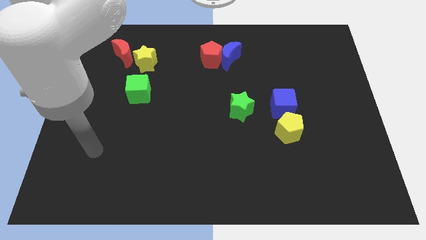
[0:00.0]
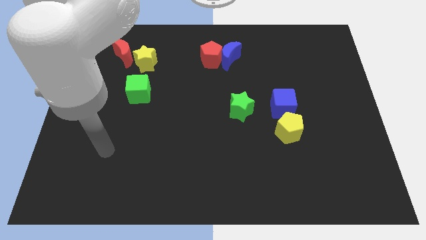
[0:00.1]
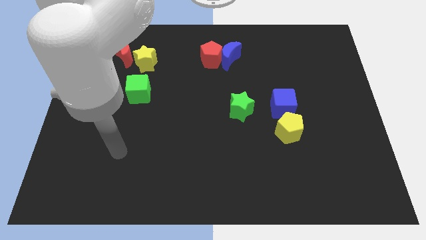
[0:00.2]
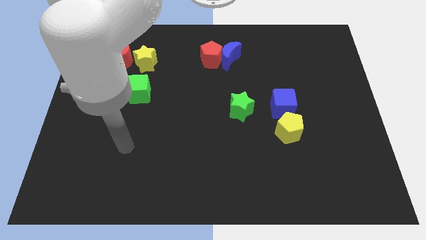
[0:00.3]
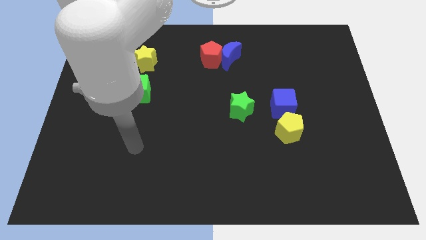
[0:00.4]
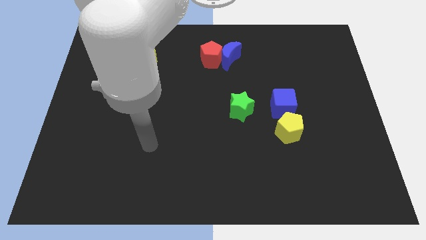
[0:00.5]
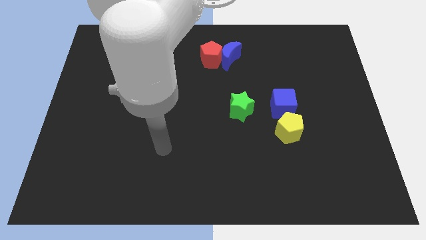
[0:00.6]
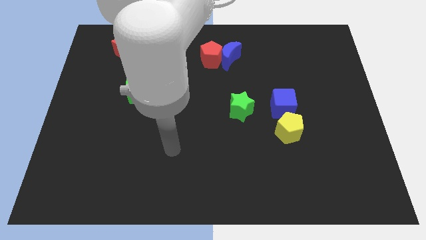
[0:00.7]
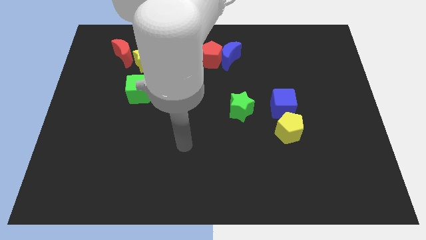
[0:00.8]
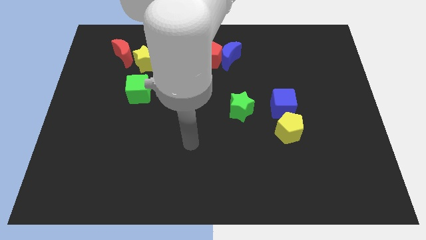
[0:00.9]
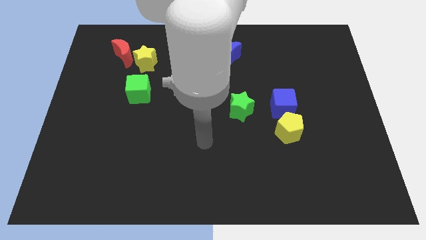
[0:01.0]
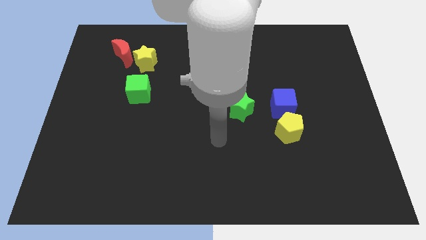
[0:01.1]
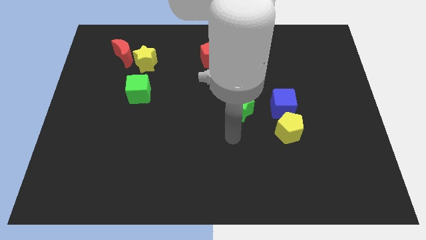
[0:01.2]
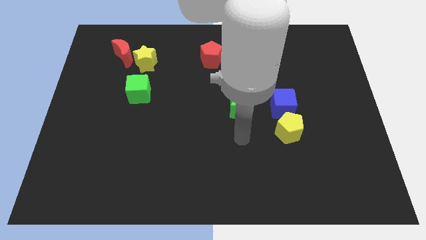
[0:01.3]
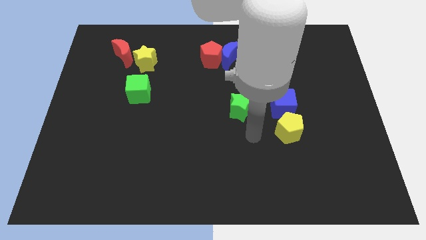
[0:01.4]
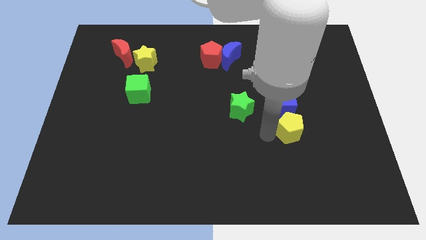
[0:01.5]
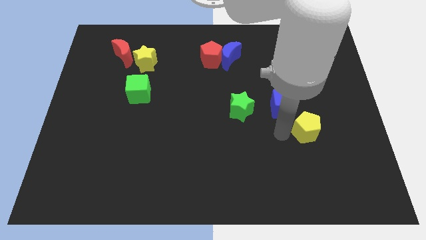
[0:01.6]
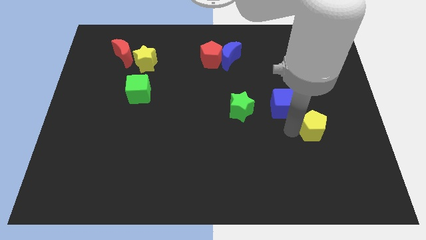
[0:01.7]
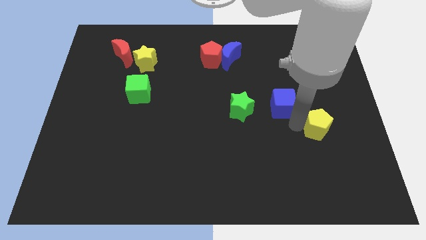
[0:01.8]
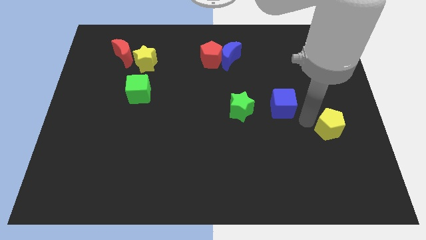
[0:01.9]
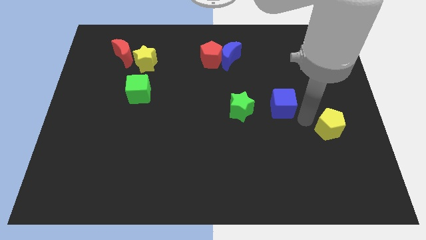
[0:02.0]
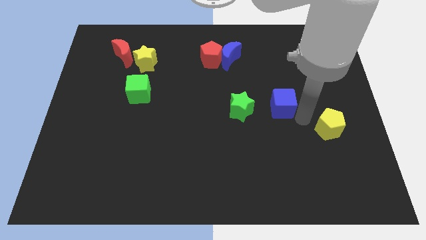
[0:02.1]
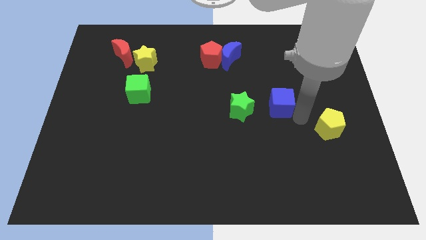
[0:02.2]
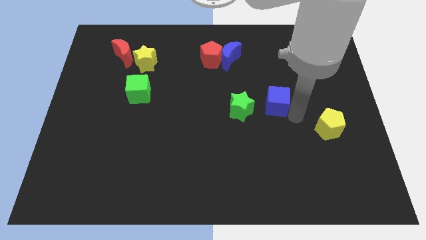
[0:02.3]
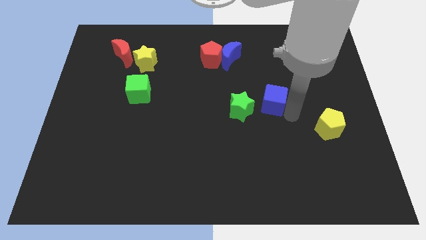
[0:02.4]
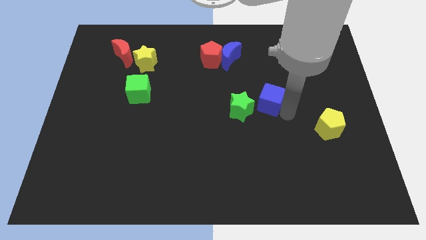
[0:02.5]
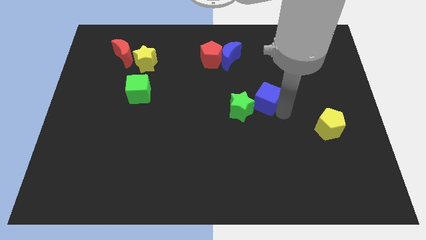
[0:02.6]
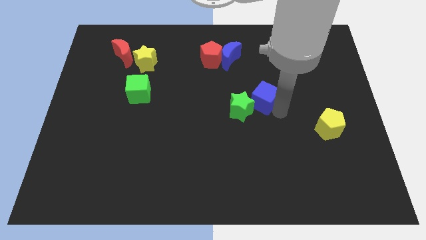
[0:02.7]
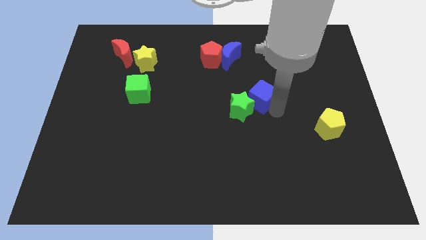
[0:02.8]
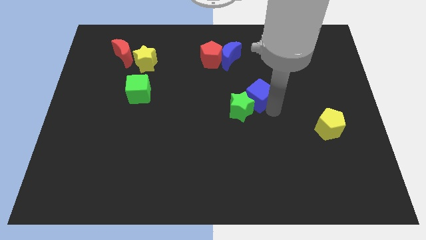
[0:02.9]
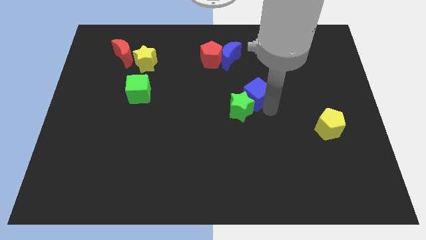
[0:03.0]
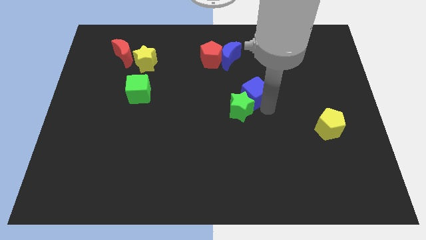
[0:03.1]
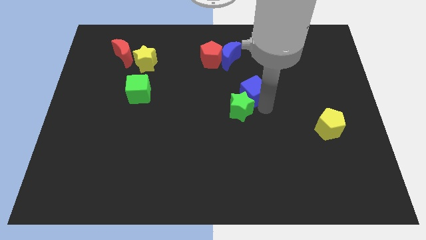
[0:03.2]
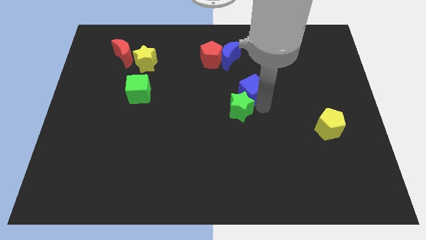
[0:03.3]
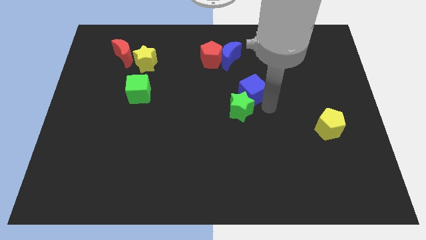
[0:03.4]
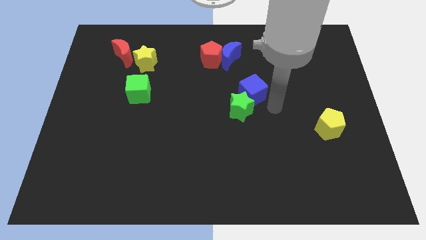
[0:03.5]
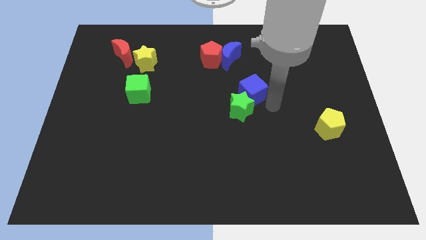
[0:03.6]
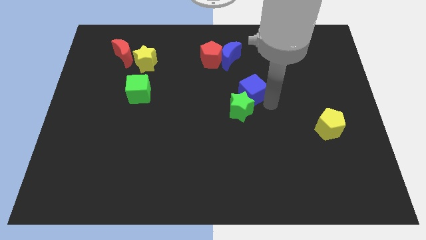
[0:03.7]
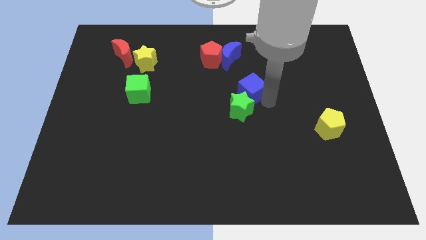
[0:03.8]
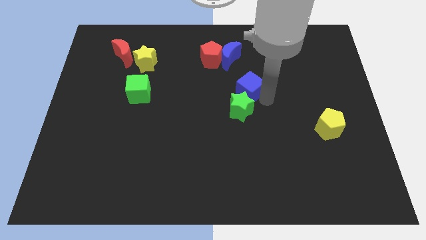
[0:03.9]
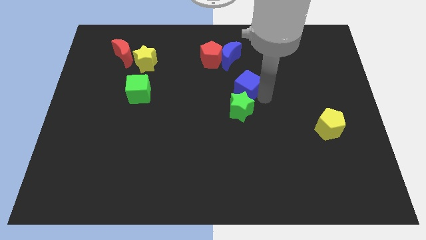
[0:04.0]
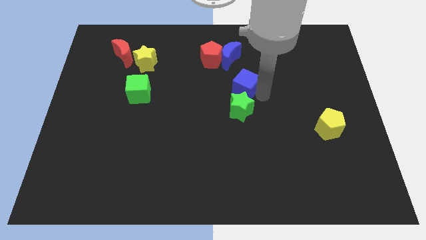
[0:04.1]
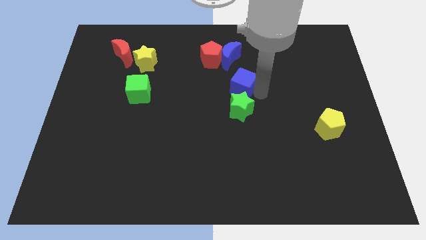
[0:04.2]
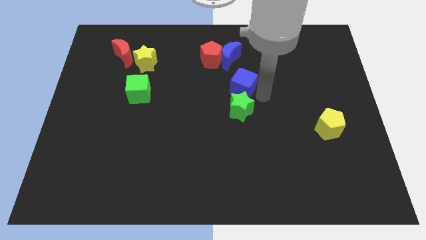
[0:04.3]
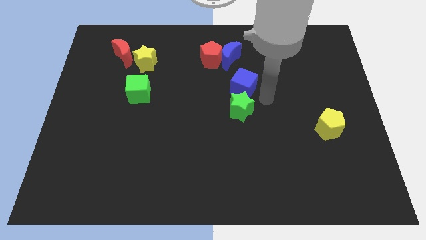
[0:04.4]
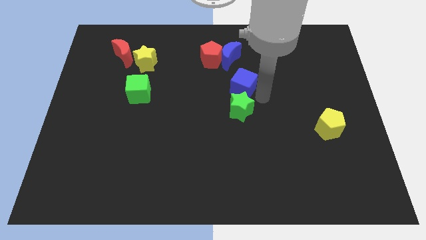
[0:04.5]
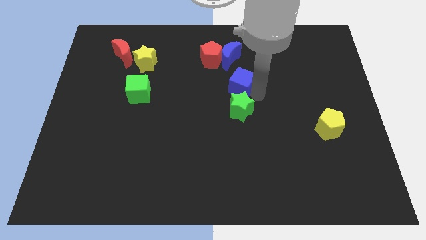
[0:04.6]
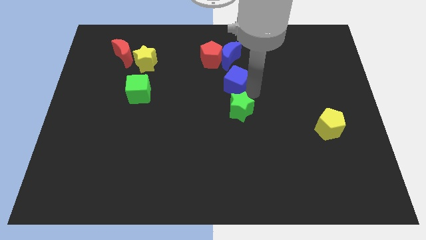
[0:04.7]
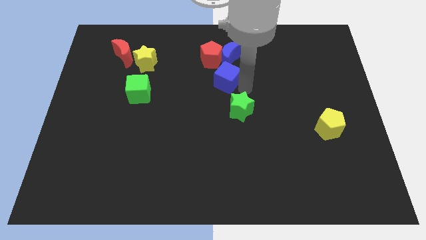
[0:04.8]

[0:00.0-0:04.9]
push the blue cube to the bottom left side of the blue moon

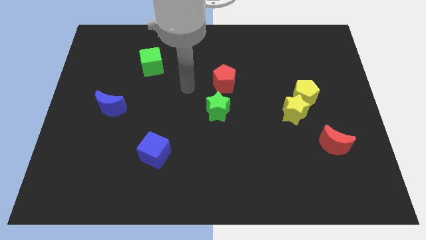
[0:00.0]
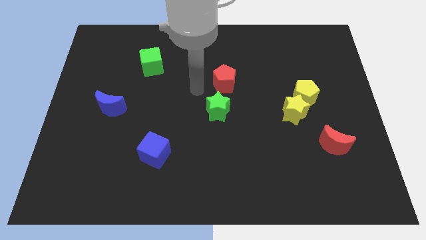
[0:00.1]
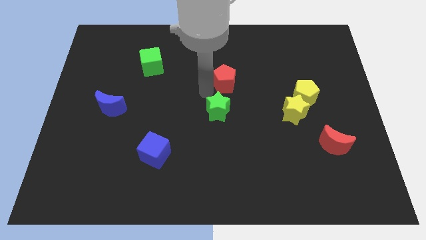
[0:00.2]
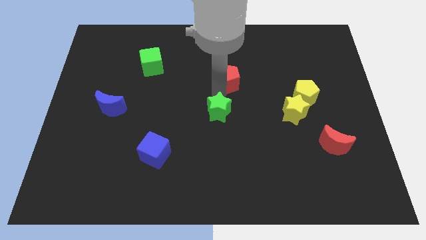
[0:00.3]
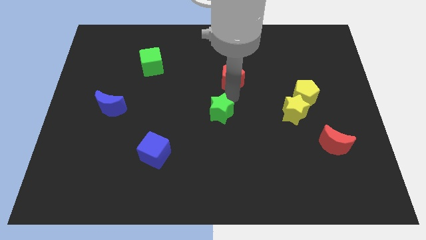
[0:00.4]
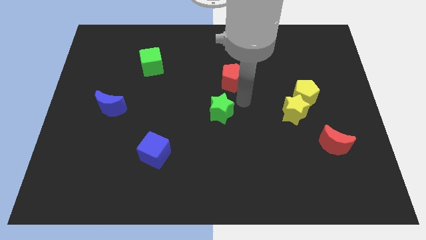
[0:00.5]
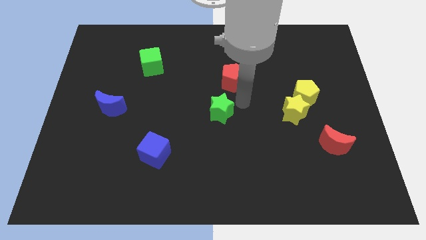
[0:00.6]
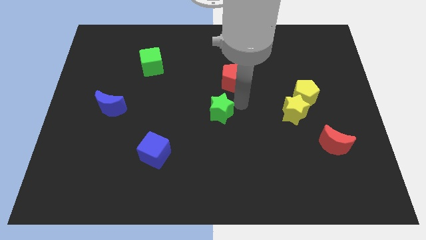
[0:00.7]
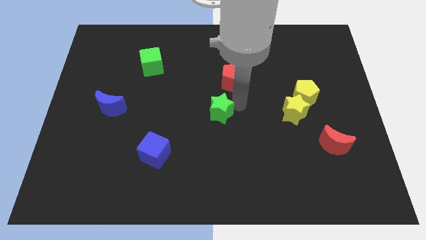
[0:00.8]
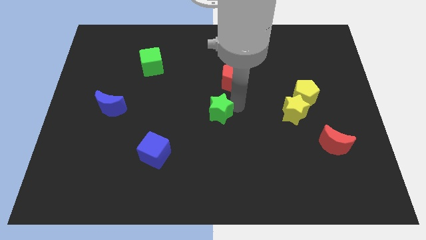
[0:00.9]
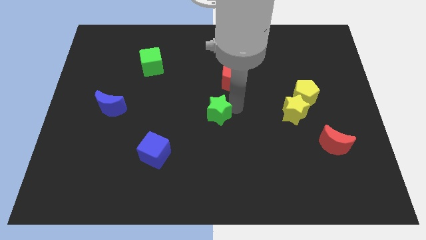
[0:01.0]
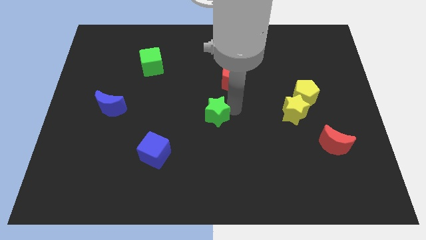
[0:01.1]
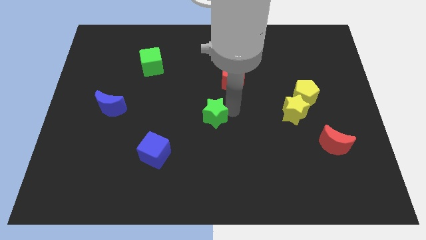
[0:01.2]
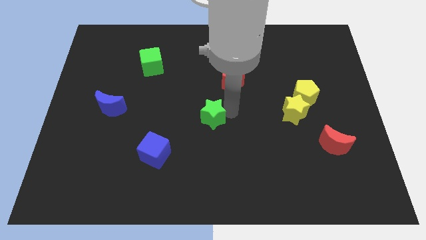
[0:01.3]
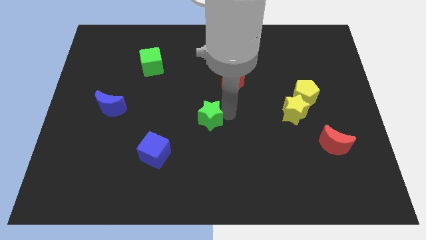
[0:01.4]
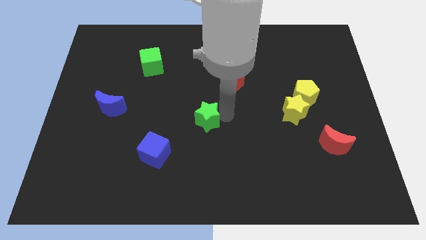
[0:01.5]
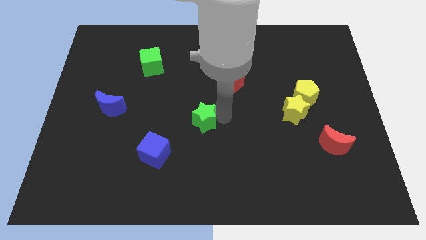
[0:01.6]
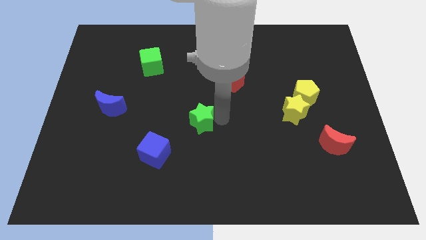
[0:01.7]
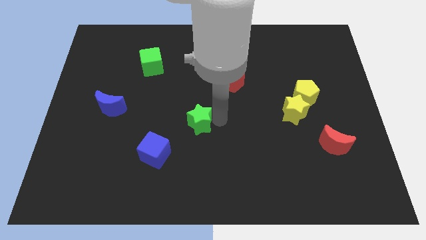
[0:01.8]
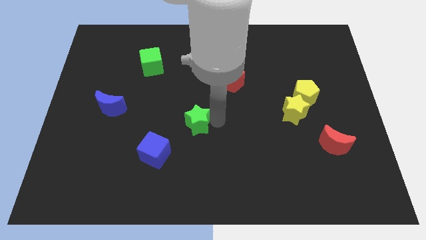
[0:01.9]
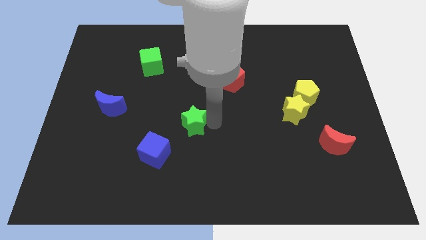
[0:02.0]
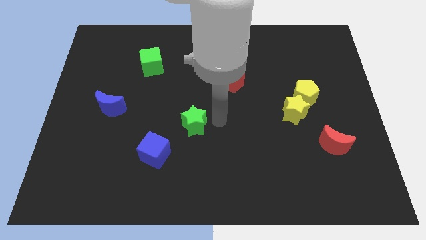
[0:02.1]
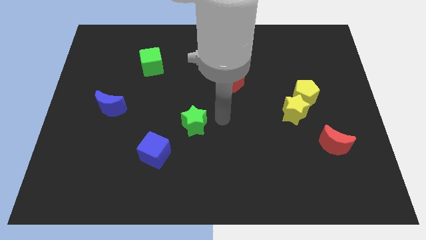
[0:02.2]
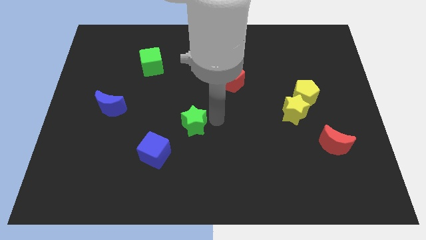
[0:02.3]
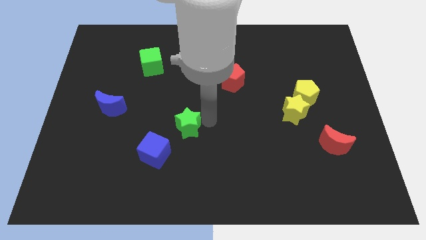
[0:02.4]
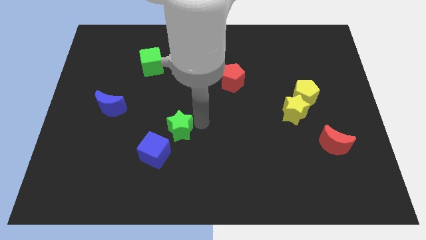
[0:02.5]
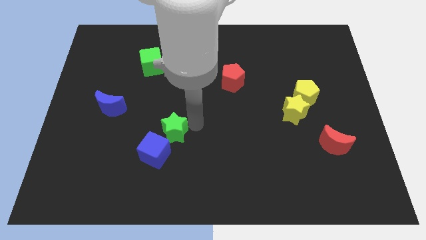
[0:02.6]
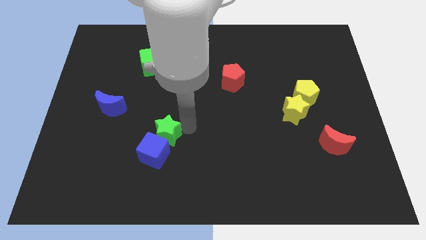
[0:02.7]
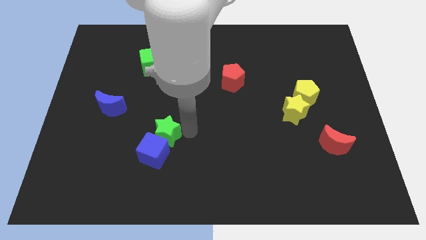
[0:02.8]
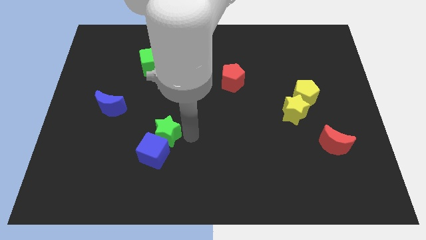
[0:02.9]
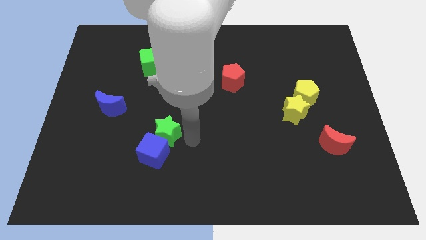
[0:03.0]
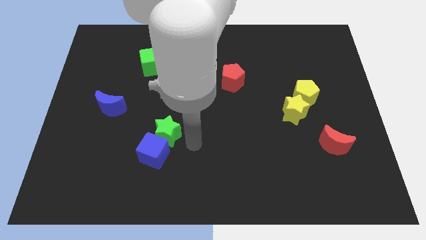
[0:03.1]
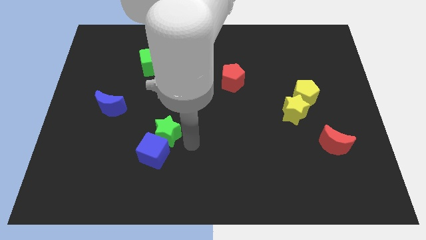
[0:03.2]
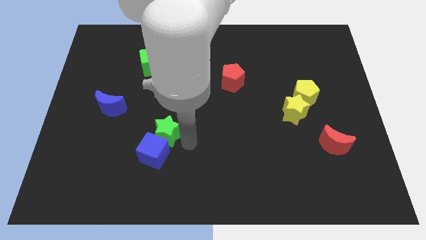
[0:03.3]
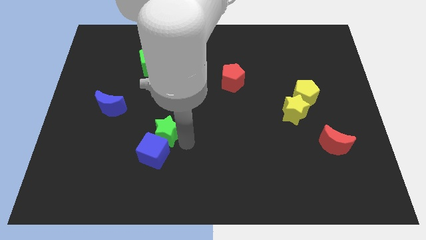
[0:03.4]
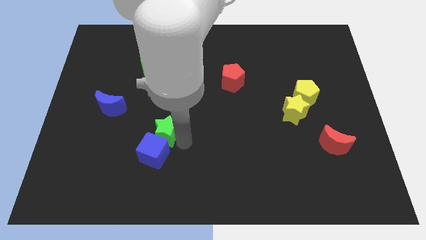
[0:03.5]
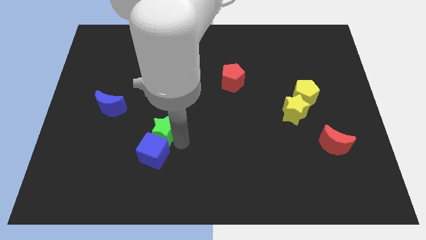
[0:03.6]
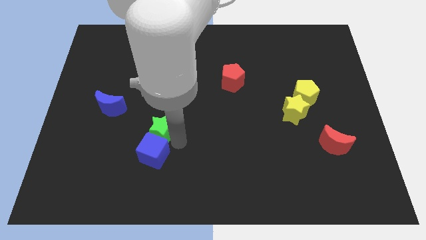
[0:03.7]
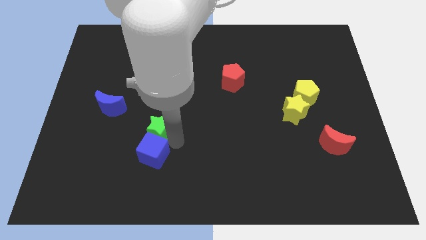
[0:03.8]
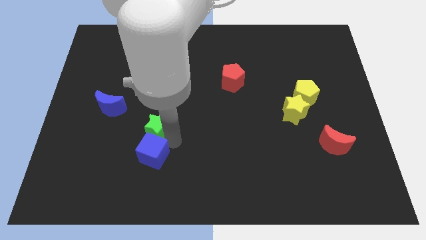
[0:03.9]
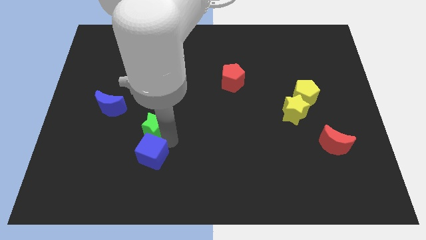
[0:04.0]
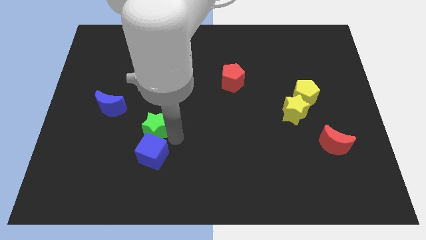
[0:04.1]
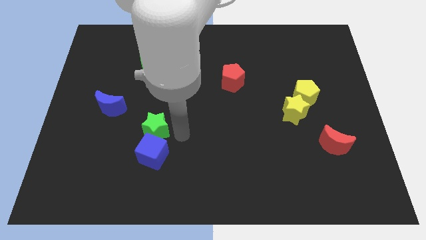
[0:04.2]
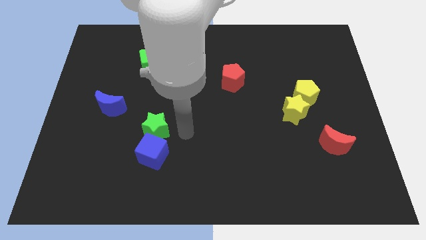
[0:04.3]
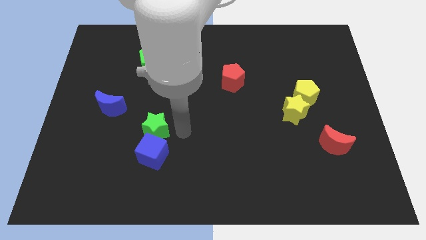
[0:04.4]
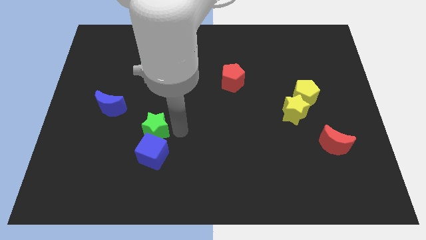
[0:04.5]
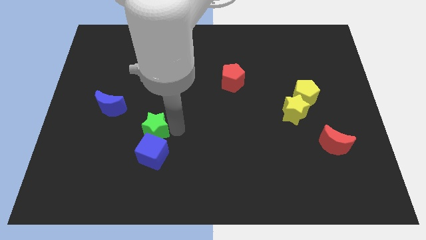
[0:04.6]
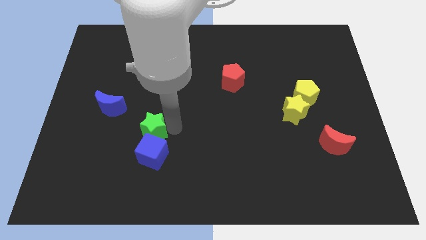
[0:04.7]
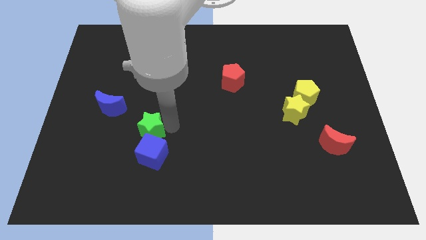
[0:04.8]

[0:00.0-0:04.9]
push the green star diagonally down and to the right of the blue moon
